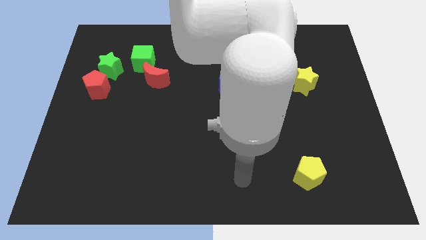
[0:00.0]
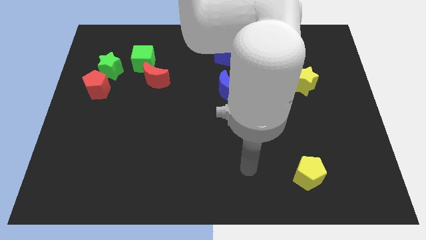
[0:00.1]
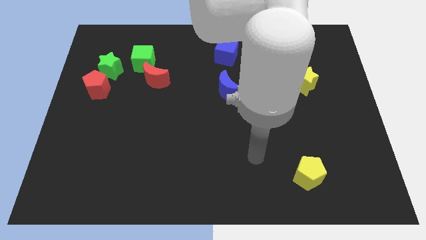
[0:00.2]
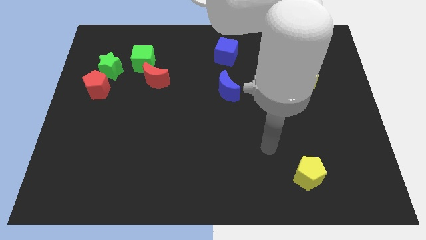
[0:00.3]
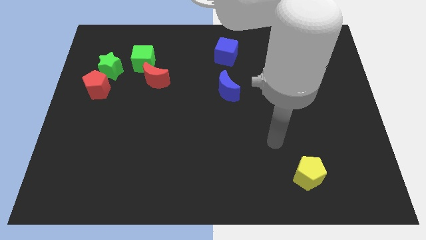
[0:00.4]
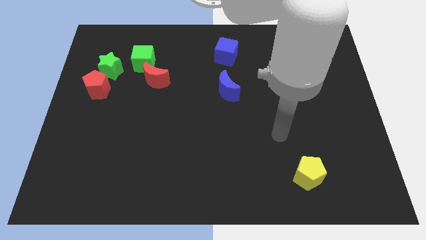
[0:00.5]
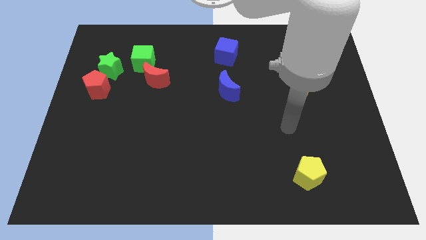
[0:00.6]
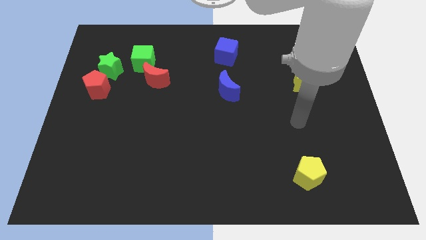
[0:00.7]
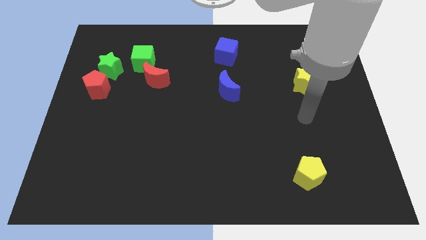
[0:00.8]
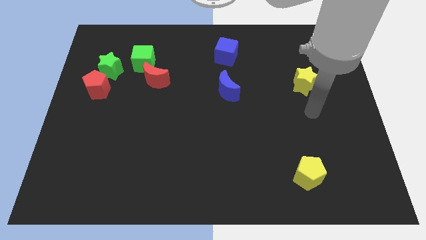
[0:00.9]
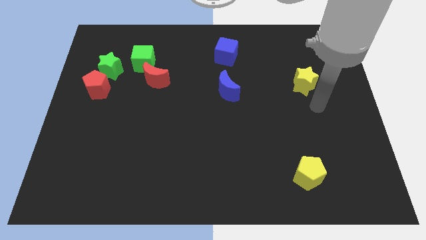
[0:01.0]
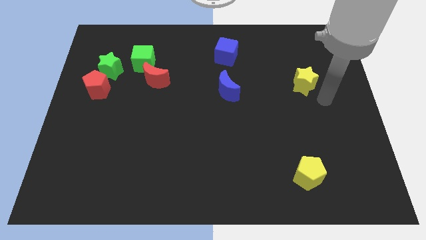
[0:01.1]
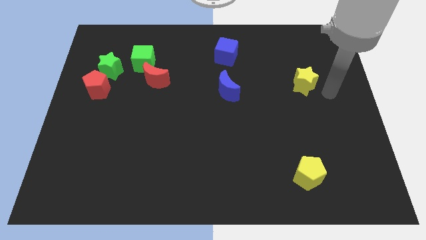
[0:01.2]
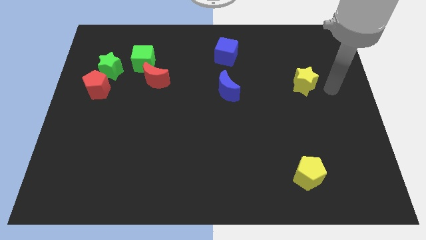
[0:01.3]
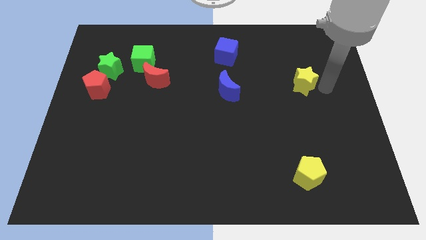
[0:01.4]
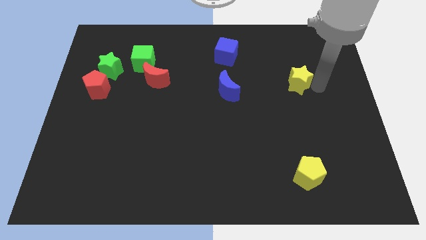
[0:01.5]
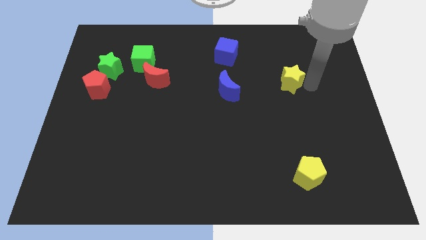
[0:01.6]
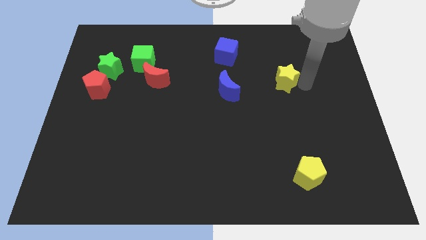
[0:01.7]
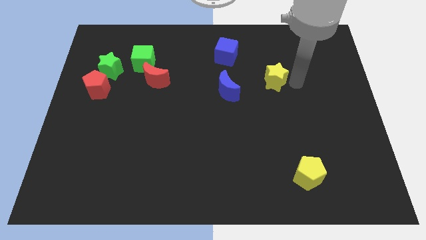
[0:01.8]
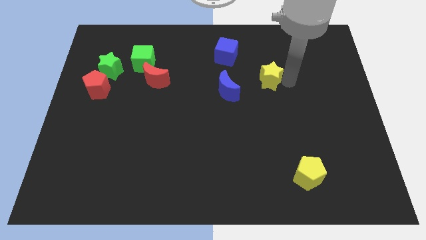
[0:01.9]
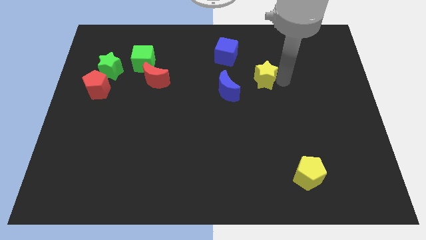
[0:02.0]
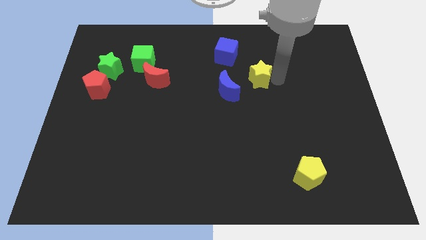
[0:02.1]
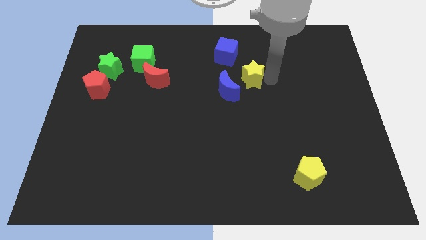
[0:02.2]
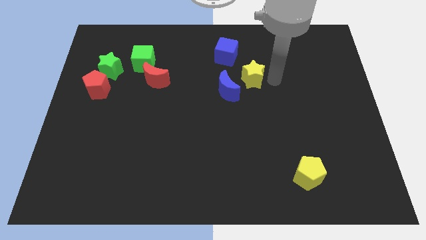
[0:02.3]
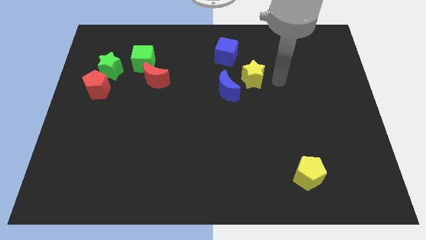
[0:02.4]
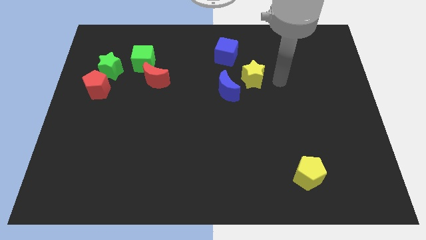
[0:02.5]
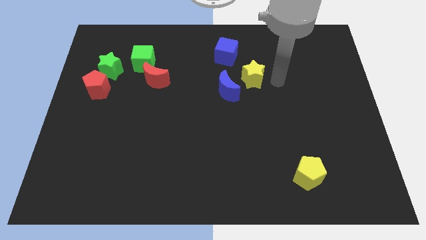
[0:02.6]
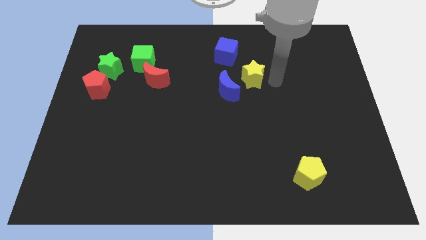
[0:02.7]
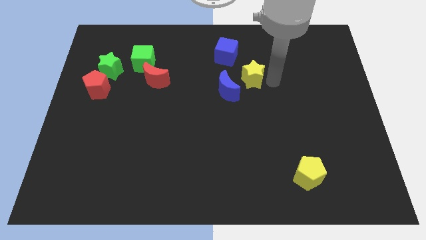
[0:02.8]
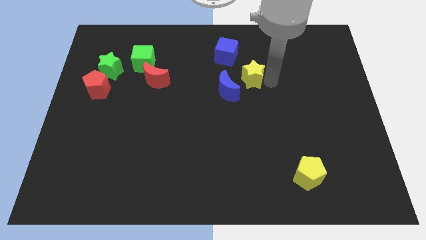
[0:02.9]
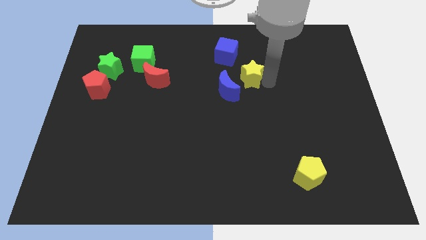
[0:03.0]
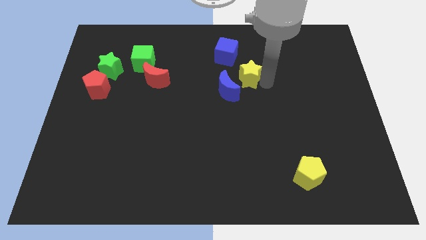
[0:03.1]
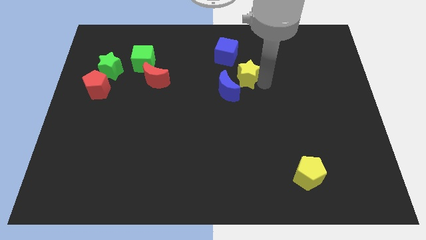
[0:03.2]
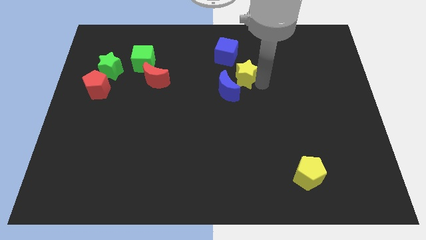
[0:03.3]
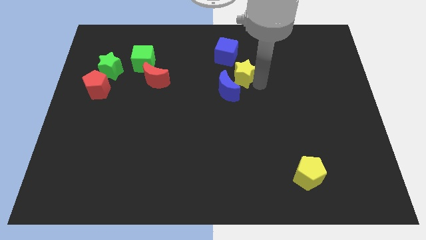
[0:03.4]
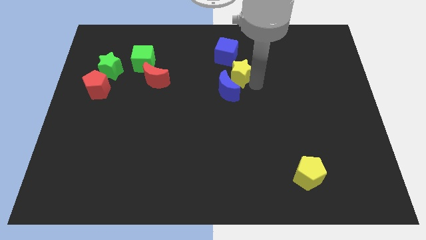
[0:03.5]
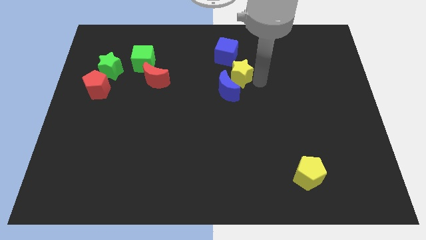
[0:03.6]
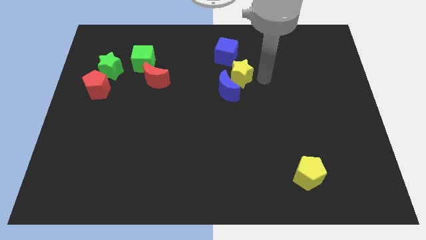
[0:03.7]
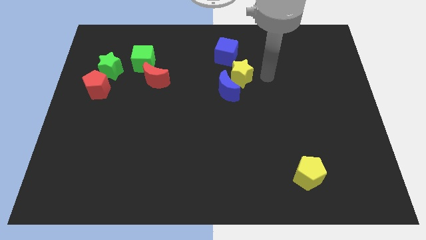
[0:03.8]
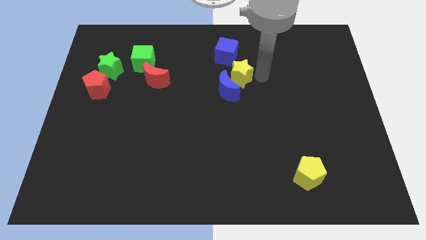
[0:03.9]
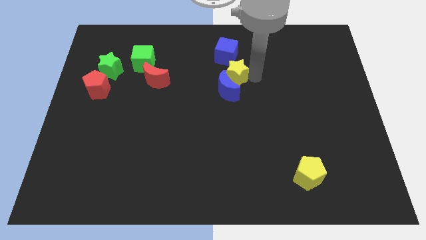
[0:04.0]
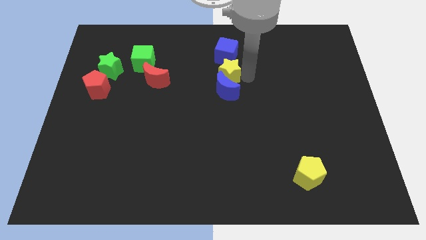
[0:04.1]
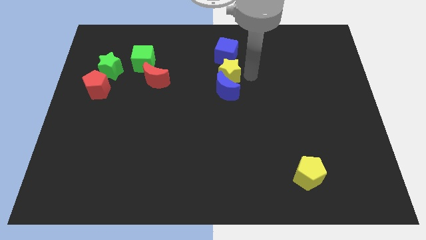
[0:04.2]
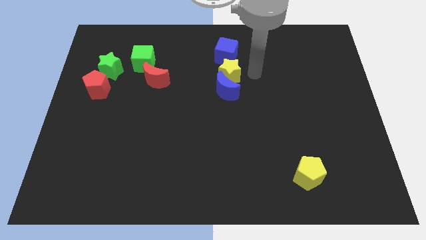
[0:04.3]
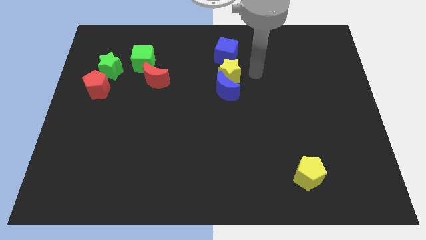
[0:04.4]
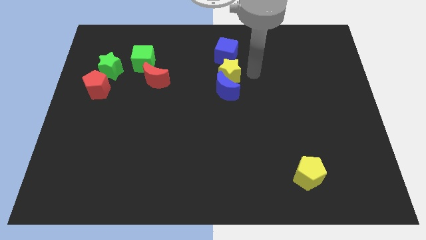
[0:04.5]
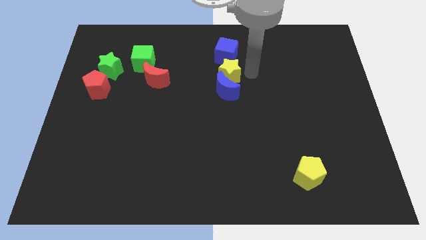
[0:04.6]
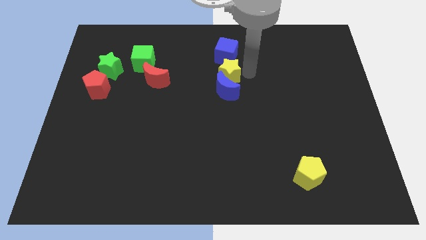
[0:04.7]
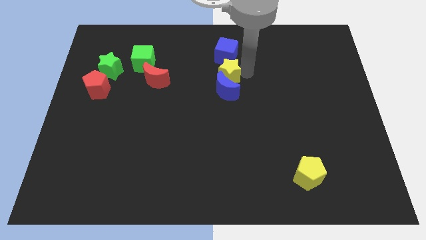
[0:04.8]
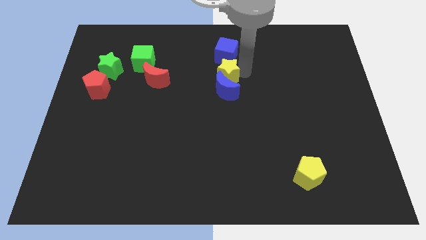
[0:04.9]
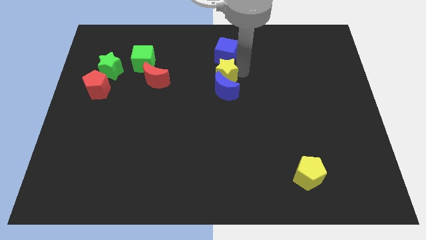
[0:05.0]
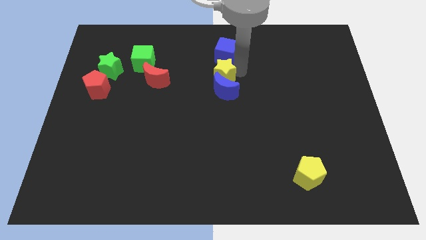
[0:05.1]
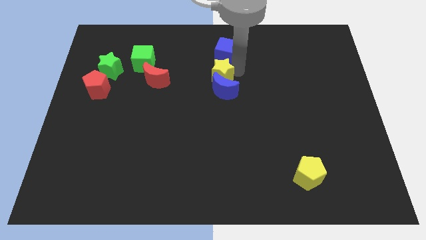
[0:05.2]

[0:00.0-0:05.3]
move the yellow star to the left

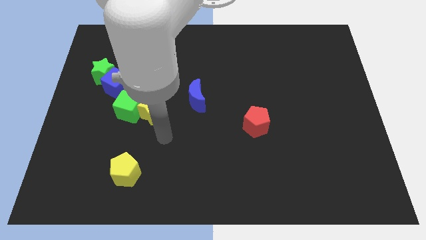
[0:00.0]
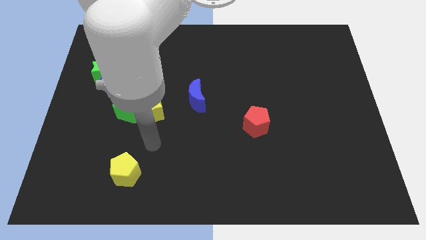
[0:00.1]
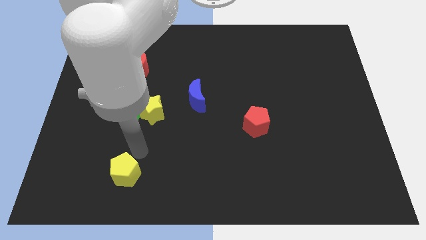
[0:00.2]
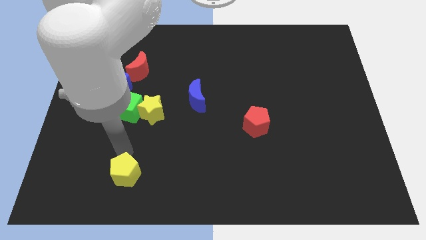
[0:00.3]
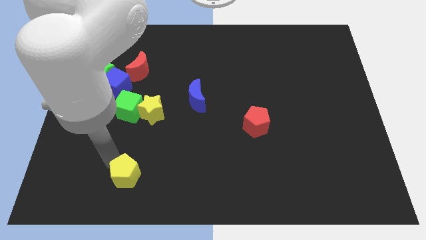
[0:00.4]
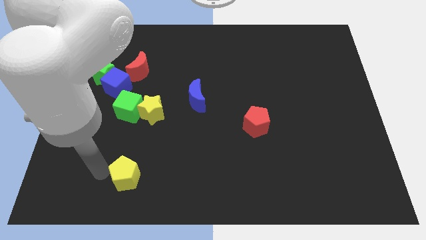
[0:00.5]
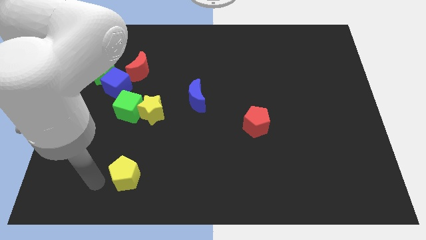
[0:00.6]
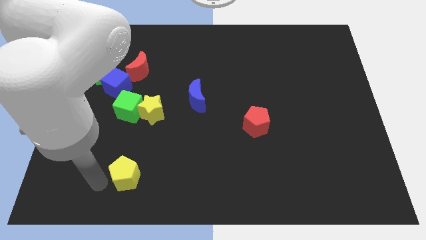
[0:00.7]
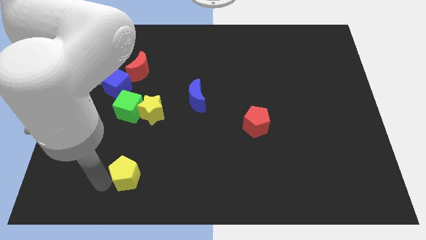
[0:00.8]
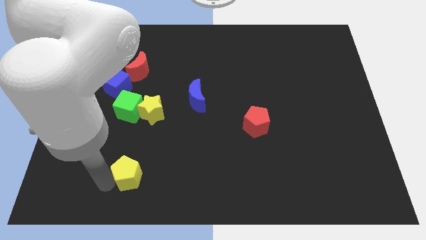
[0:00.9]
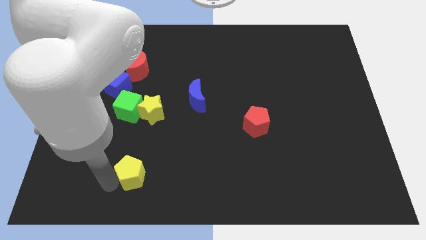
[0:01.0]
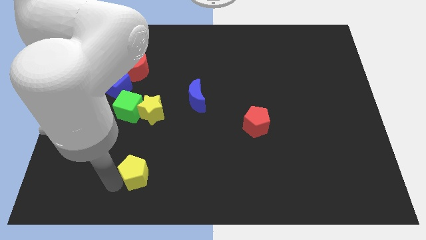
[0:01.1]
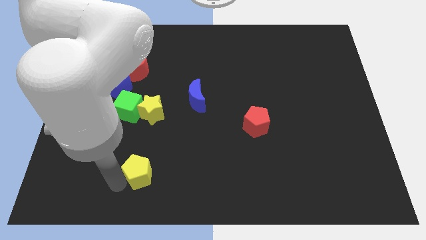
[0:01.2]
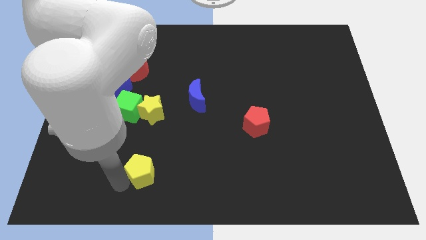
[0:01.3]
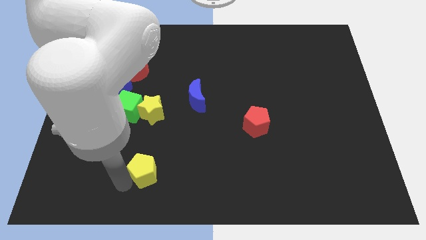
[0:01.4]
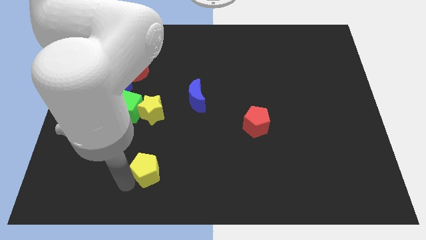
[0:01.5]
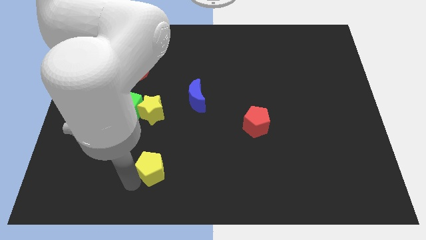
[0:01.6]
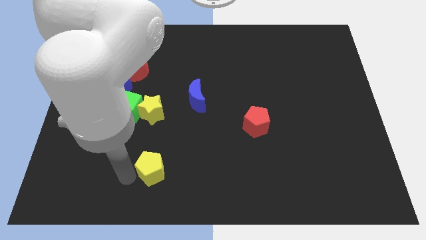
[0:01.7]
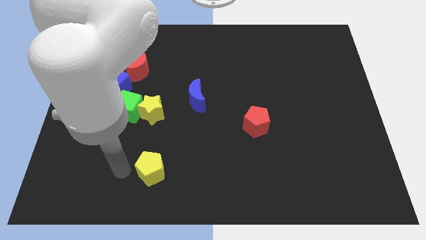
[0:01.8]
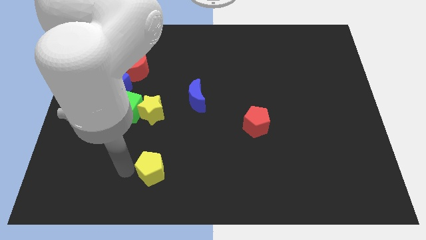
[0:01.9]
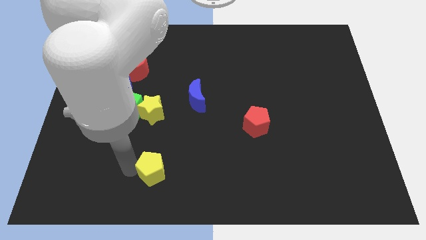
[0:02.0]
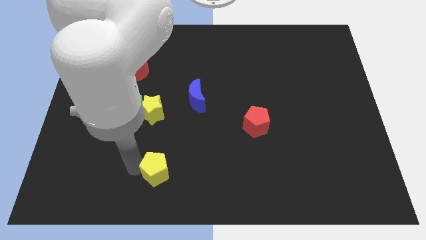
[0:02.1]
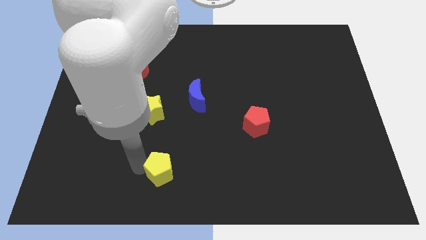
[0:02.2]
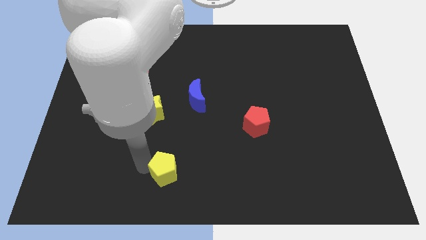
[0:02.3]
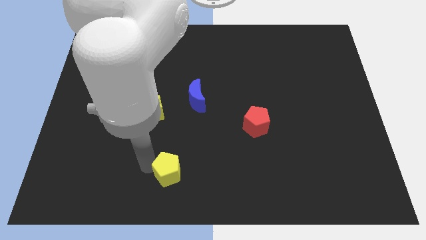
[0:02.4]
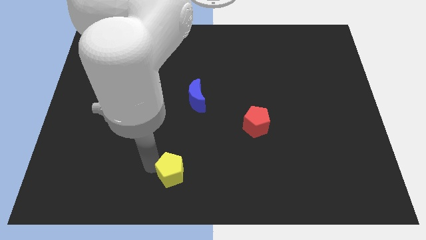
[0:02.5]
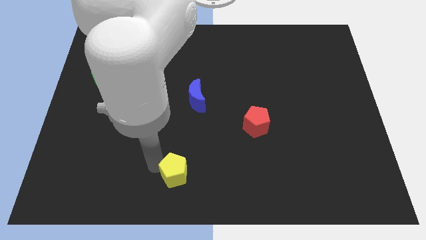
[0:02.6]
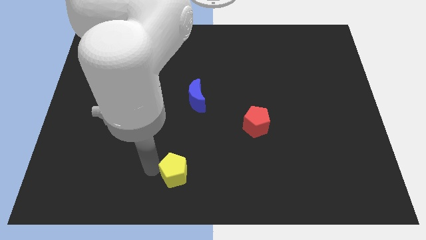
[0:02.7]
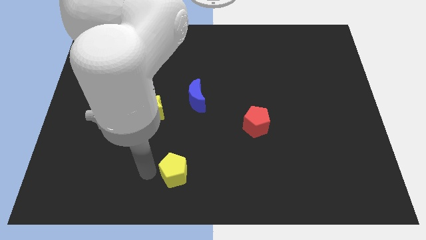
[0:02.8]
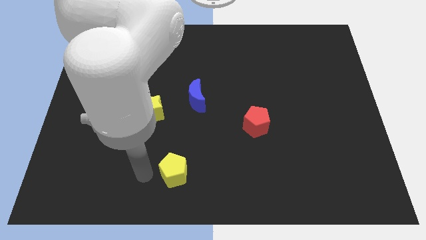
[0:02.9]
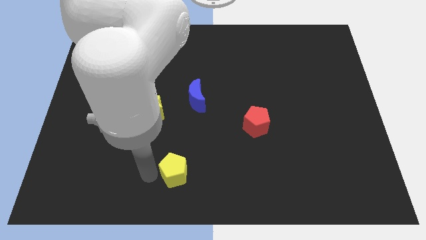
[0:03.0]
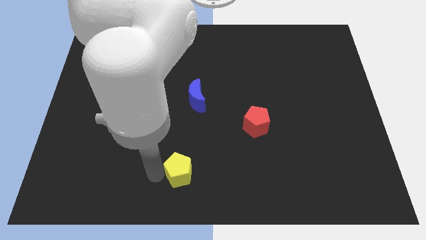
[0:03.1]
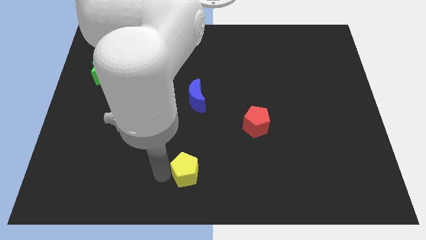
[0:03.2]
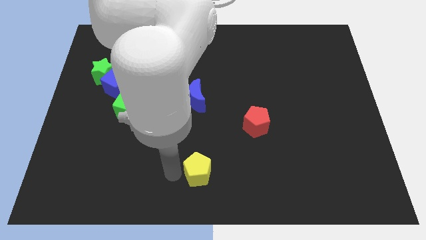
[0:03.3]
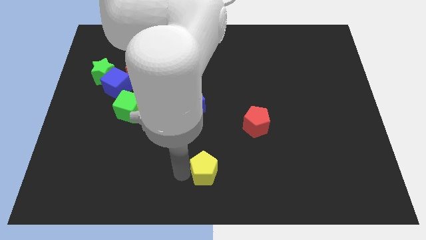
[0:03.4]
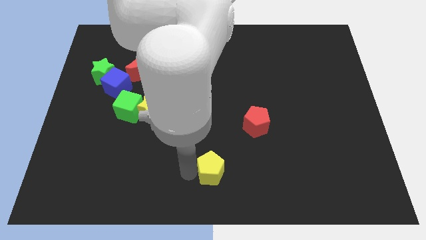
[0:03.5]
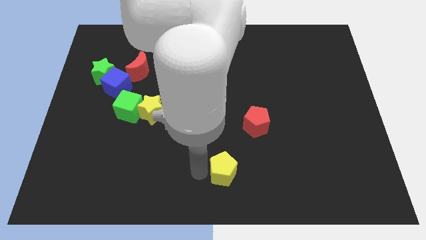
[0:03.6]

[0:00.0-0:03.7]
move the yellow pentagon to the right
